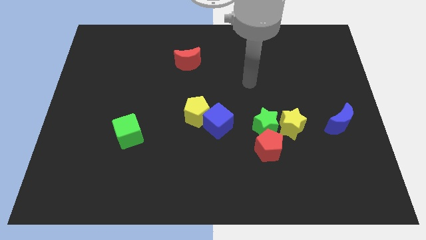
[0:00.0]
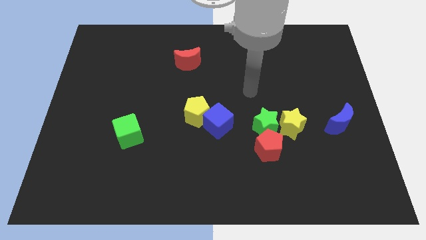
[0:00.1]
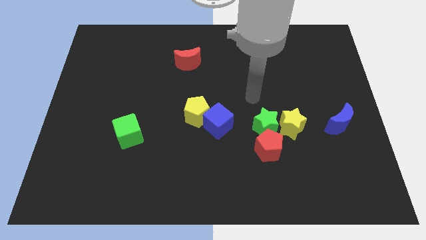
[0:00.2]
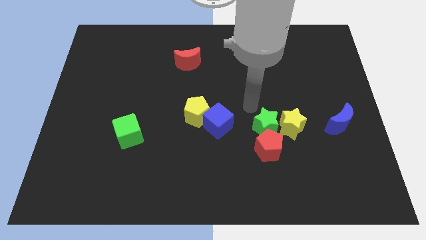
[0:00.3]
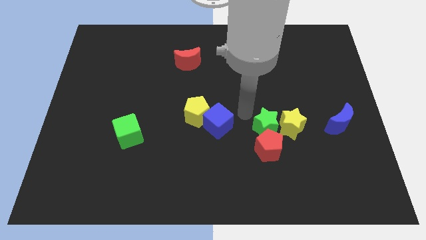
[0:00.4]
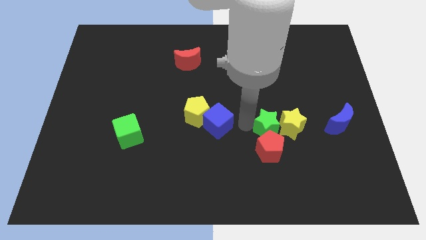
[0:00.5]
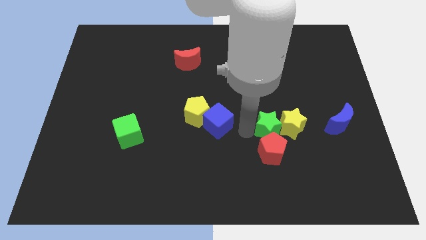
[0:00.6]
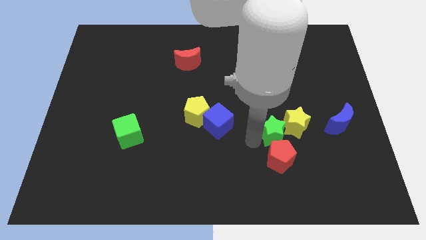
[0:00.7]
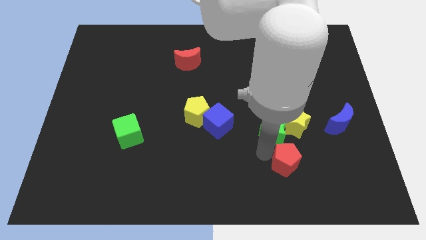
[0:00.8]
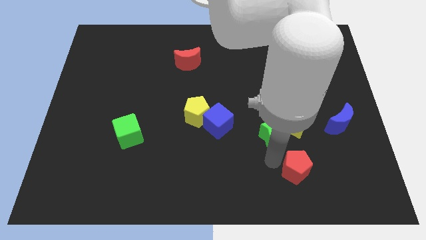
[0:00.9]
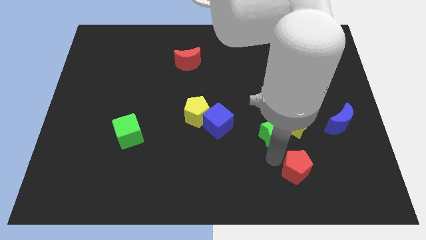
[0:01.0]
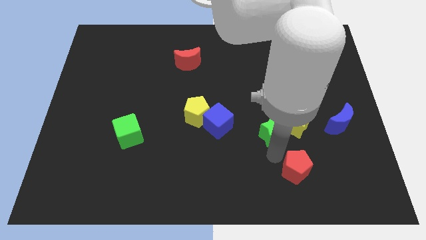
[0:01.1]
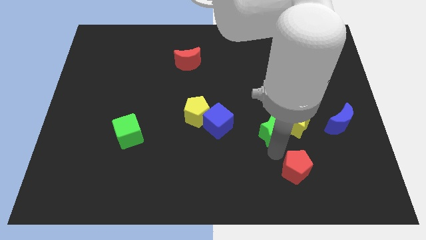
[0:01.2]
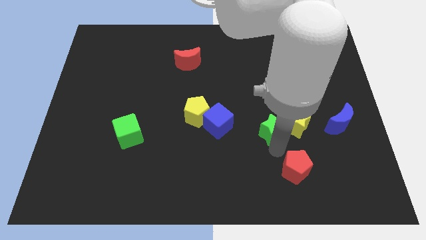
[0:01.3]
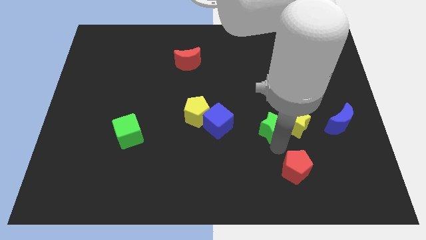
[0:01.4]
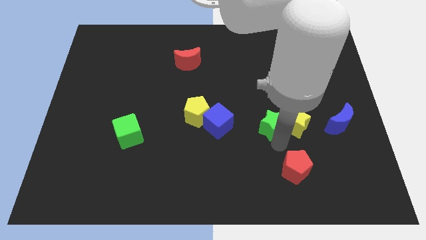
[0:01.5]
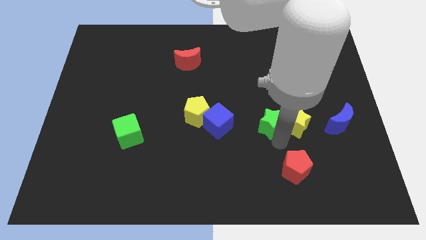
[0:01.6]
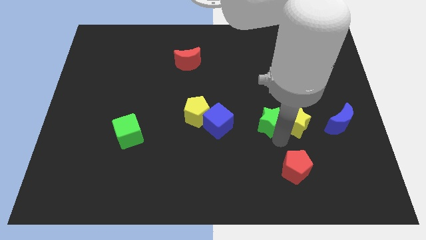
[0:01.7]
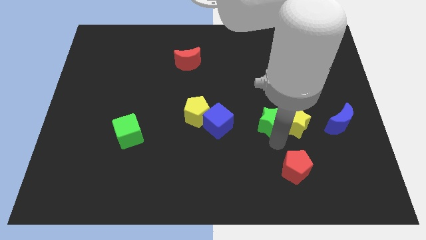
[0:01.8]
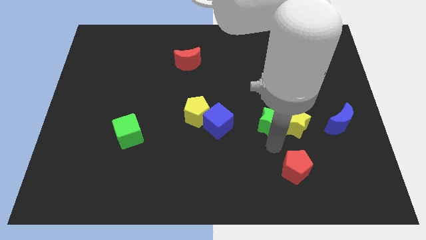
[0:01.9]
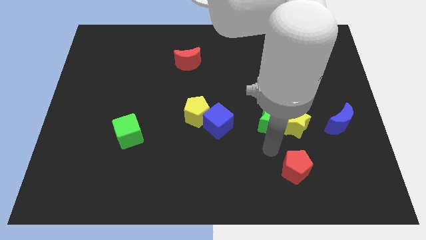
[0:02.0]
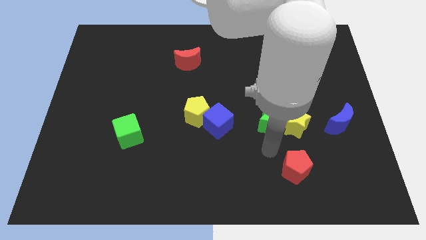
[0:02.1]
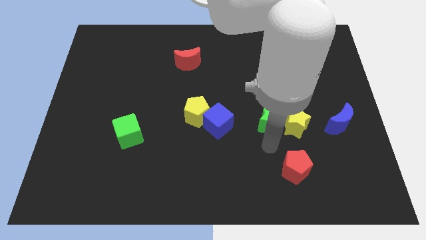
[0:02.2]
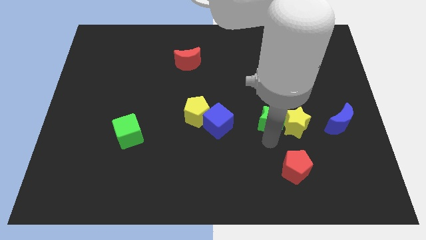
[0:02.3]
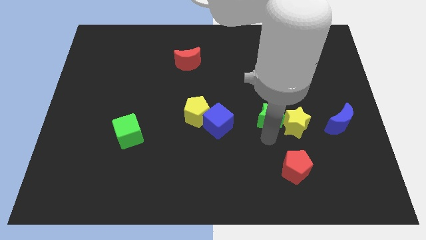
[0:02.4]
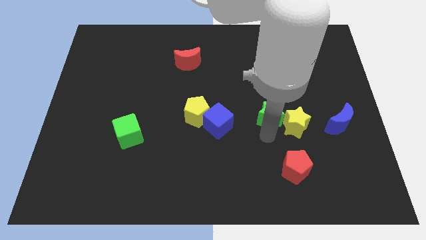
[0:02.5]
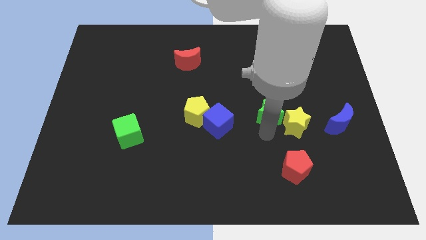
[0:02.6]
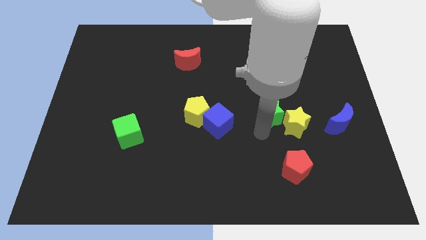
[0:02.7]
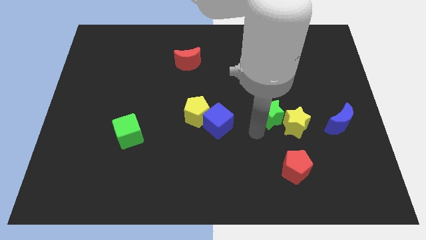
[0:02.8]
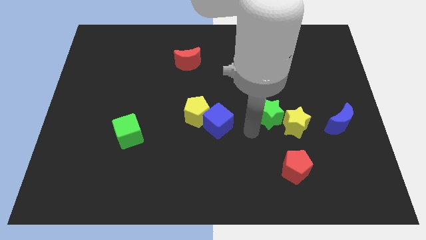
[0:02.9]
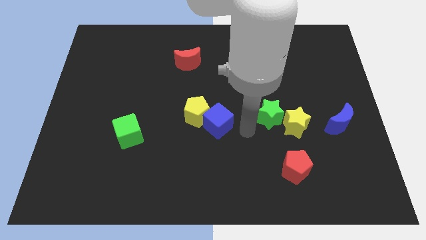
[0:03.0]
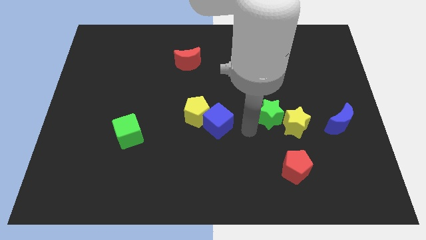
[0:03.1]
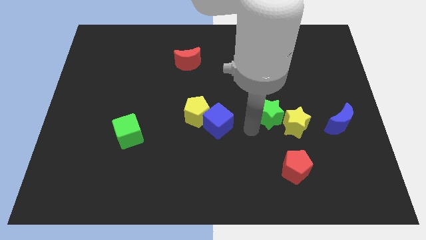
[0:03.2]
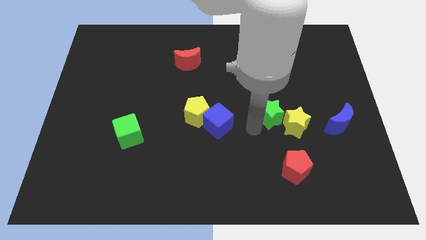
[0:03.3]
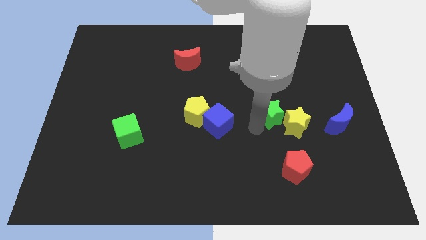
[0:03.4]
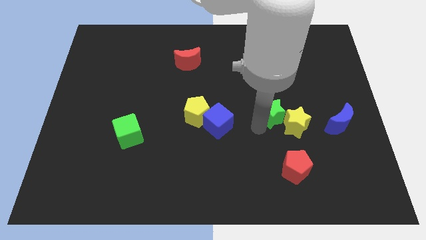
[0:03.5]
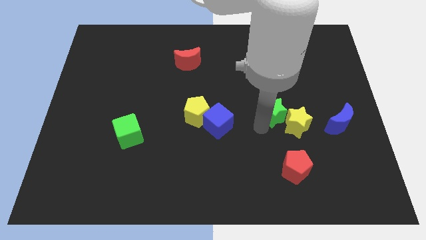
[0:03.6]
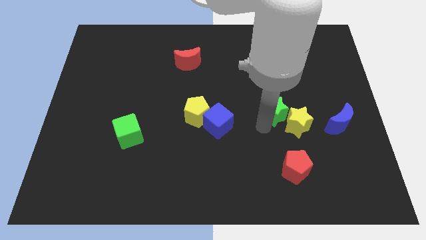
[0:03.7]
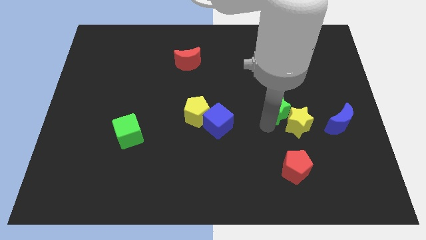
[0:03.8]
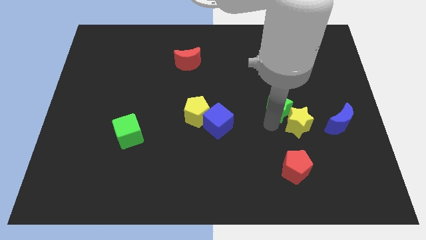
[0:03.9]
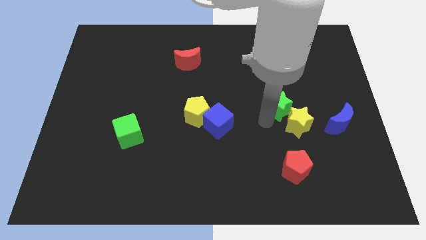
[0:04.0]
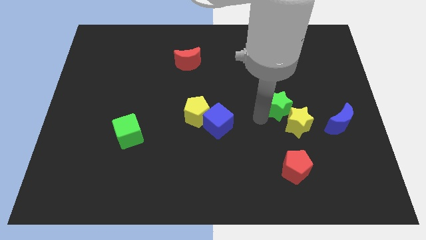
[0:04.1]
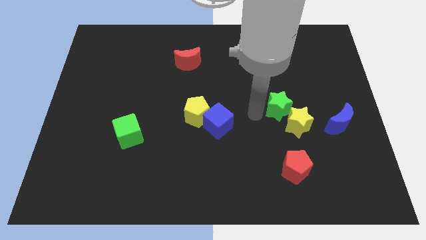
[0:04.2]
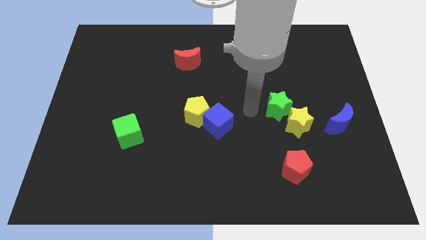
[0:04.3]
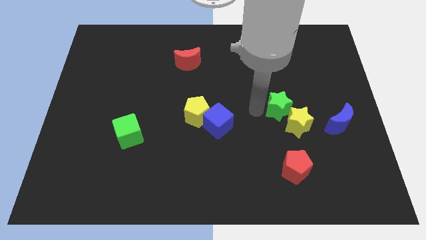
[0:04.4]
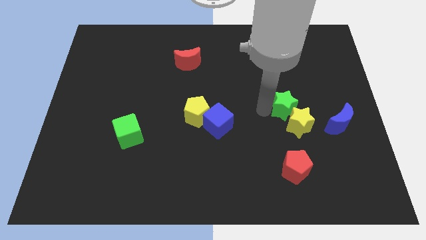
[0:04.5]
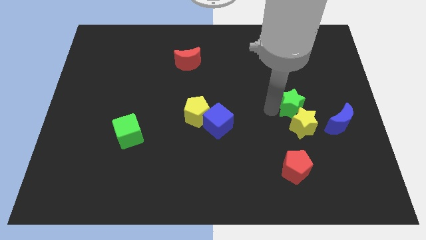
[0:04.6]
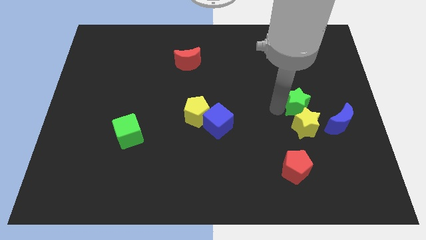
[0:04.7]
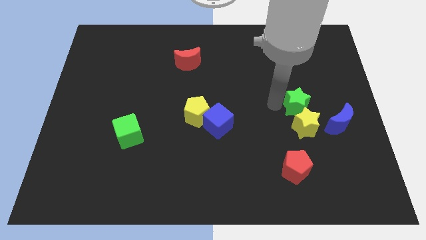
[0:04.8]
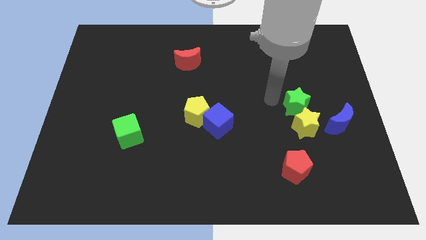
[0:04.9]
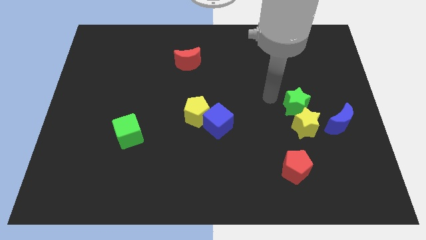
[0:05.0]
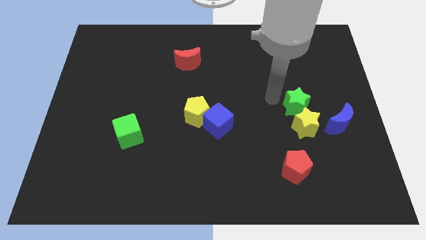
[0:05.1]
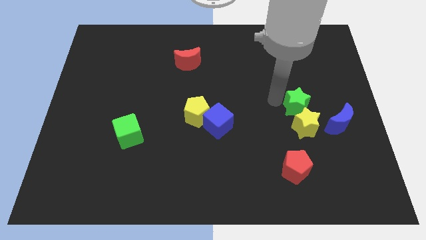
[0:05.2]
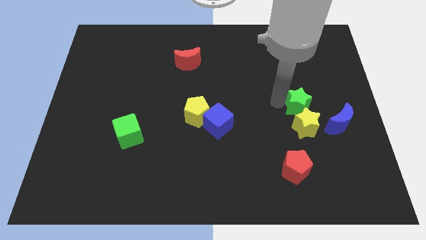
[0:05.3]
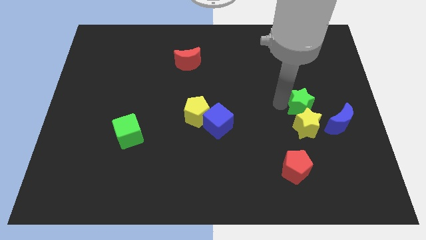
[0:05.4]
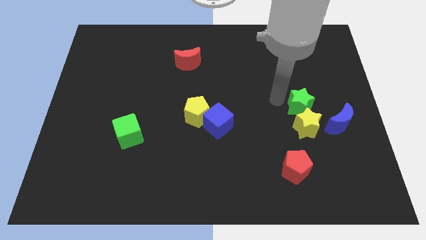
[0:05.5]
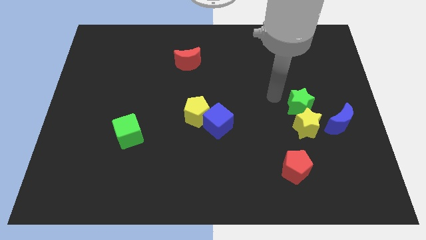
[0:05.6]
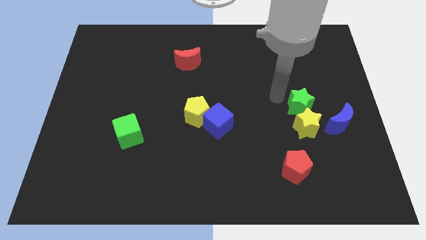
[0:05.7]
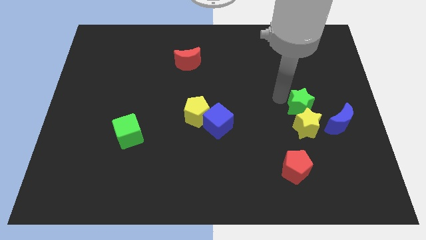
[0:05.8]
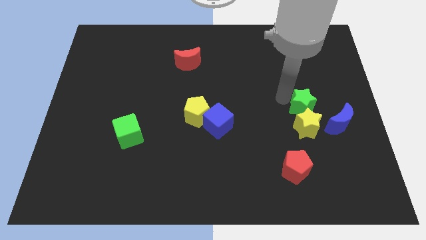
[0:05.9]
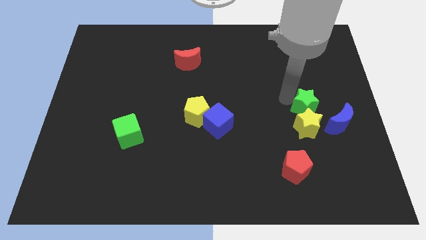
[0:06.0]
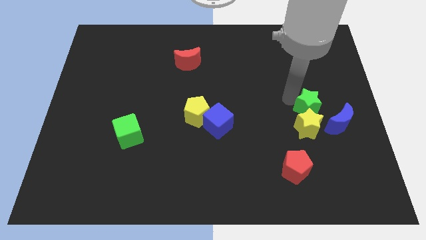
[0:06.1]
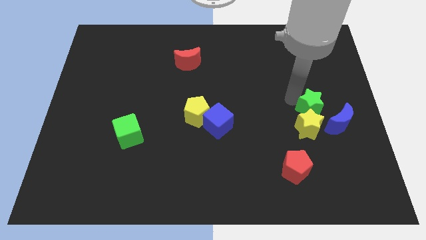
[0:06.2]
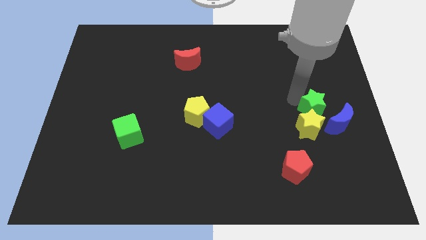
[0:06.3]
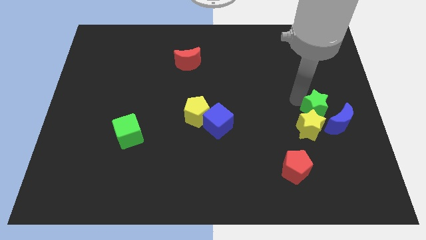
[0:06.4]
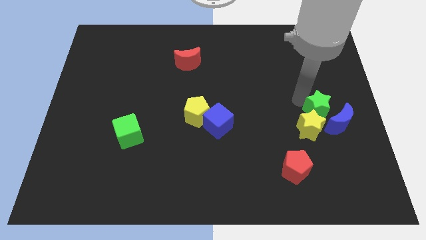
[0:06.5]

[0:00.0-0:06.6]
push the green star next to the blue moon
